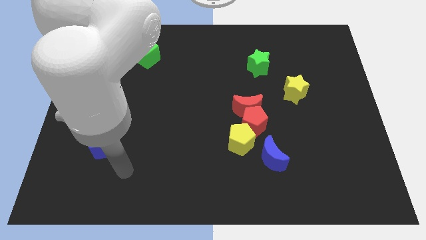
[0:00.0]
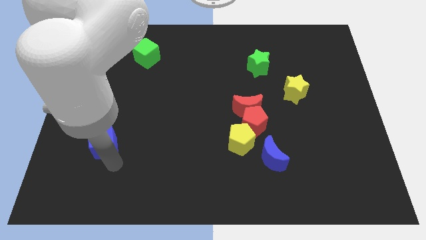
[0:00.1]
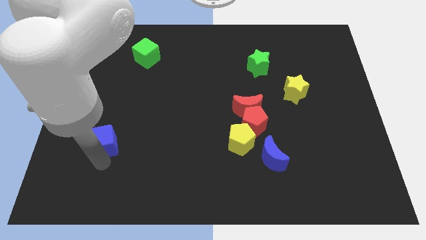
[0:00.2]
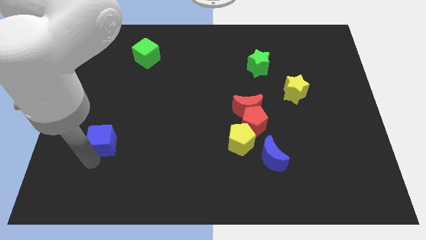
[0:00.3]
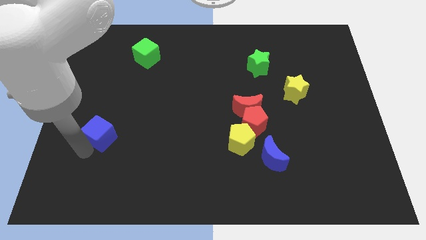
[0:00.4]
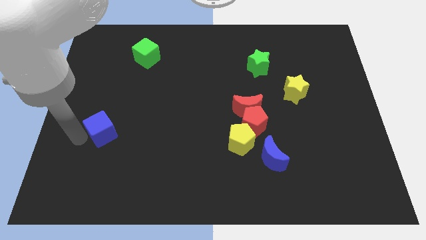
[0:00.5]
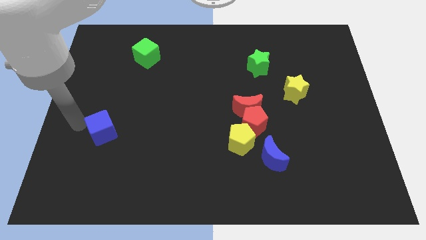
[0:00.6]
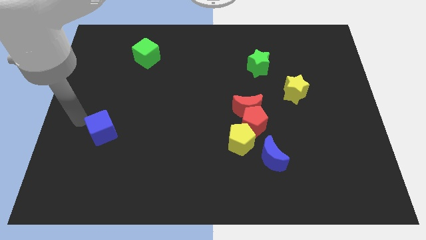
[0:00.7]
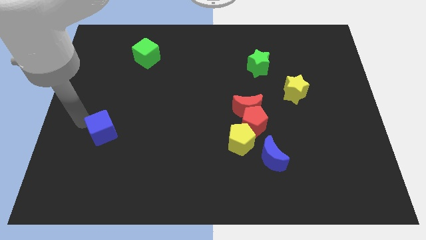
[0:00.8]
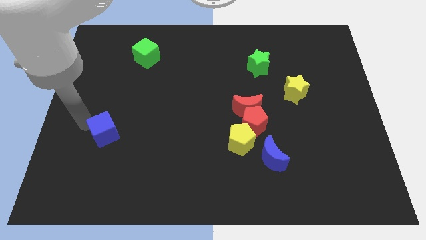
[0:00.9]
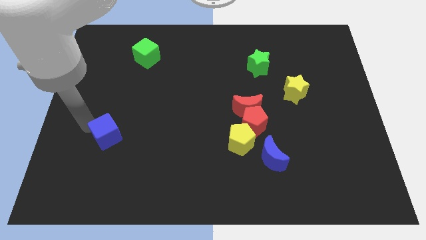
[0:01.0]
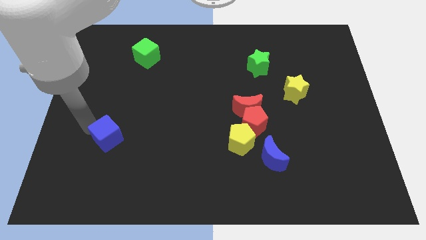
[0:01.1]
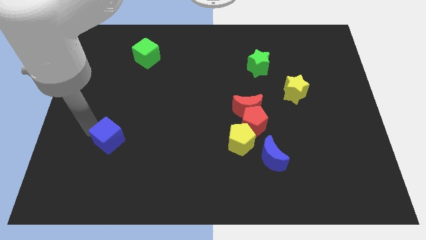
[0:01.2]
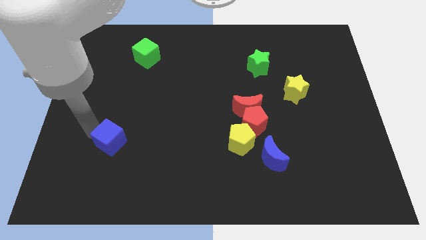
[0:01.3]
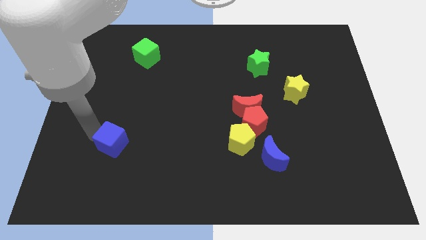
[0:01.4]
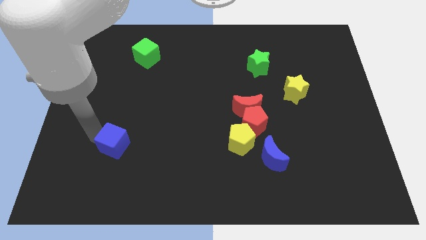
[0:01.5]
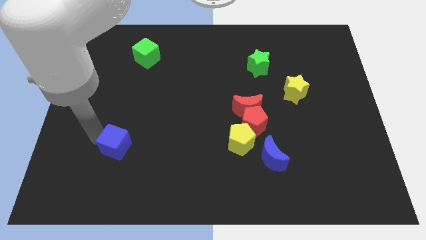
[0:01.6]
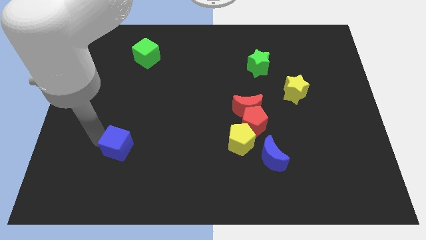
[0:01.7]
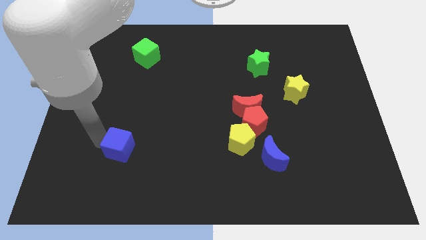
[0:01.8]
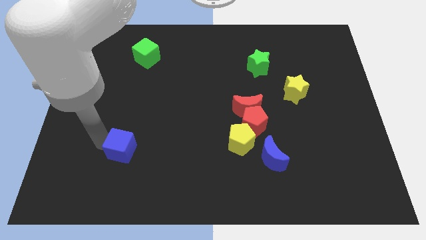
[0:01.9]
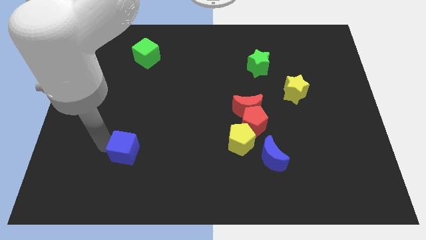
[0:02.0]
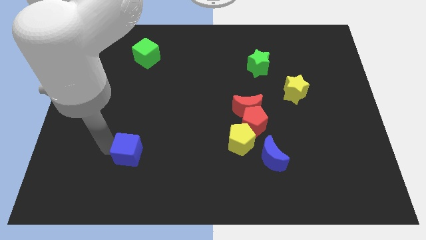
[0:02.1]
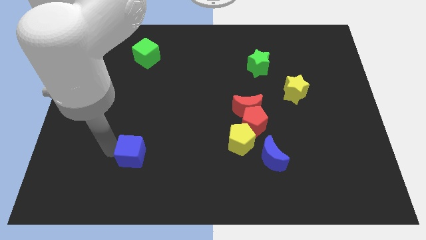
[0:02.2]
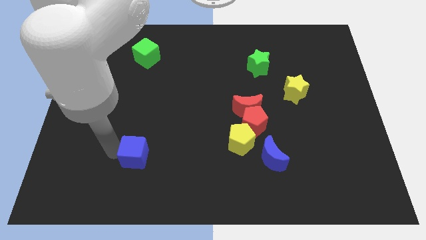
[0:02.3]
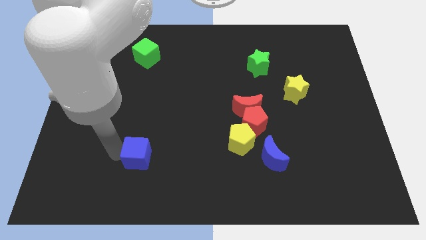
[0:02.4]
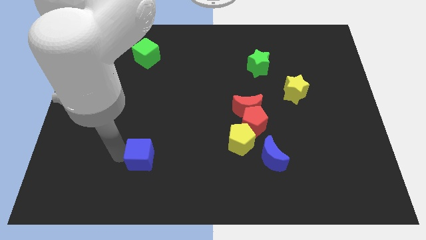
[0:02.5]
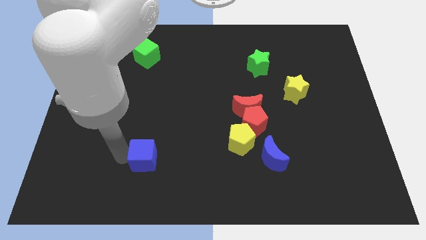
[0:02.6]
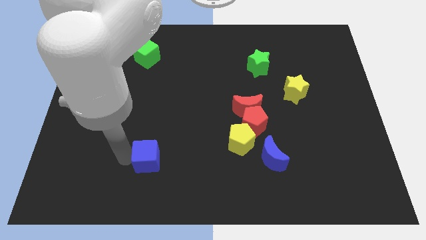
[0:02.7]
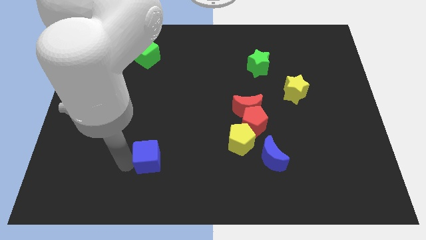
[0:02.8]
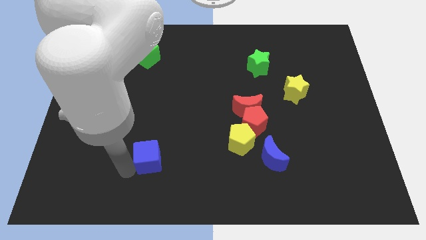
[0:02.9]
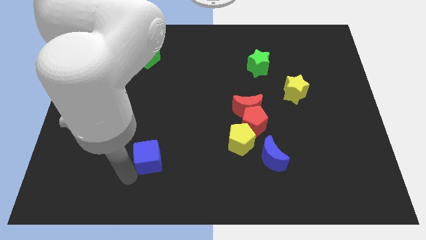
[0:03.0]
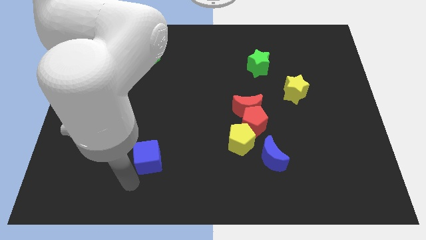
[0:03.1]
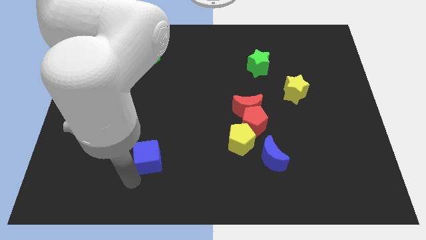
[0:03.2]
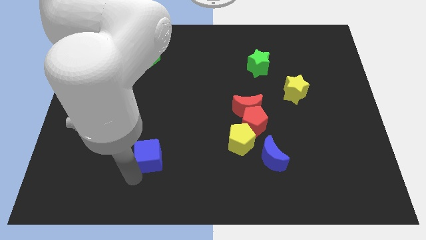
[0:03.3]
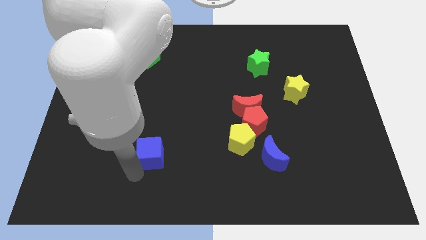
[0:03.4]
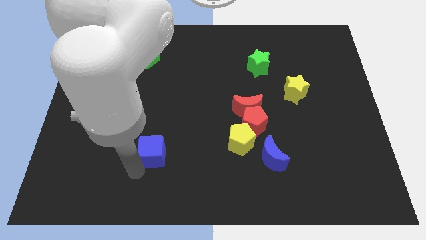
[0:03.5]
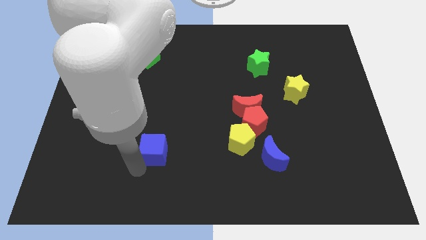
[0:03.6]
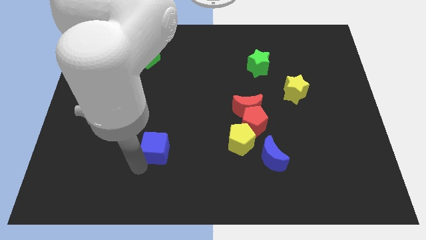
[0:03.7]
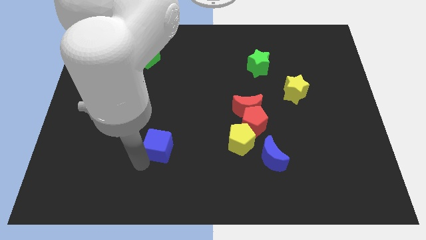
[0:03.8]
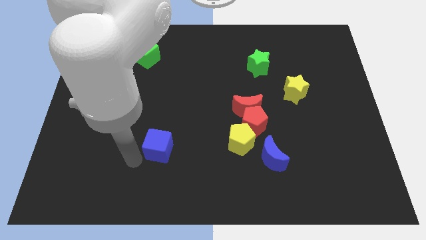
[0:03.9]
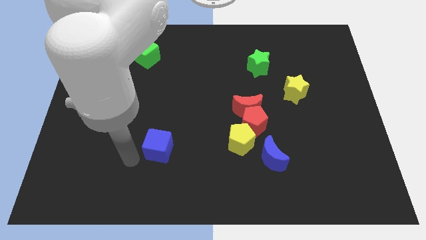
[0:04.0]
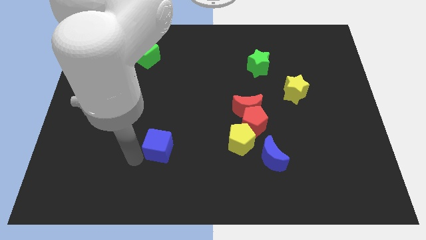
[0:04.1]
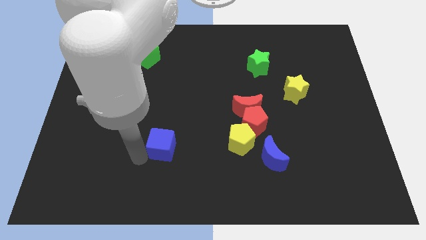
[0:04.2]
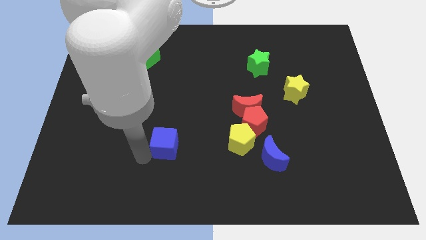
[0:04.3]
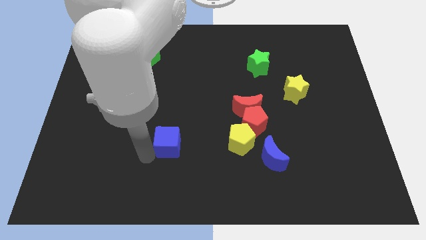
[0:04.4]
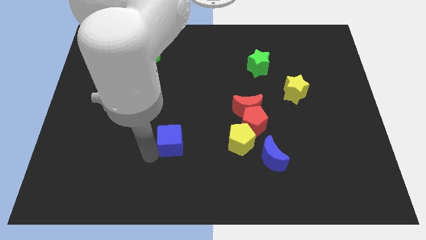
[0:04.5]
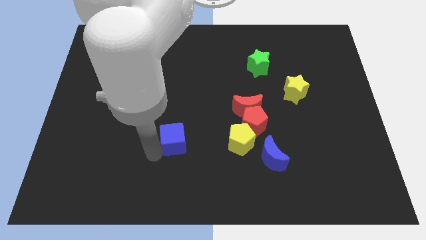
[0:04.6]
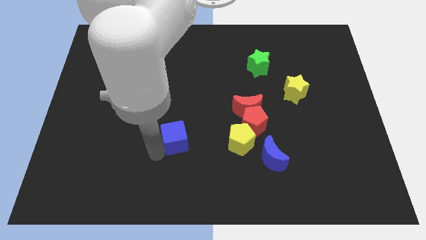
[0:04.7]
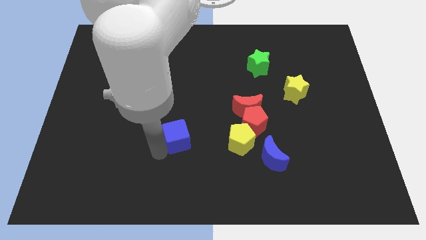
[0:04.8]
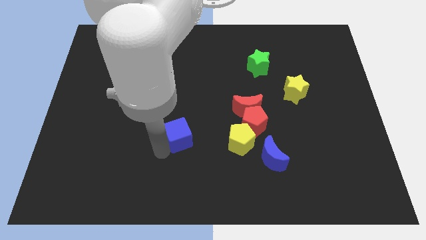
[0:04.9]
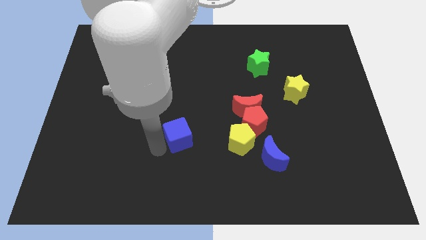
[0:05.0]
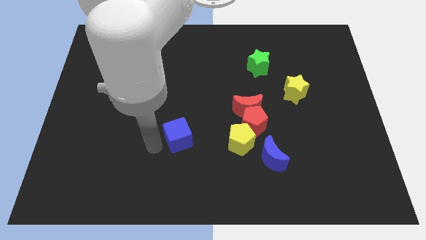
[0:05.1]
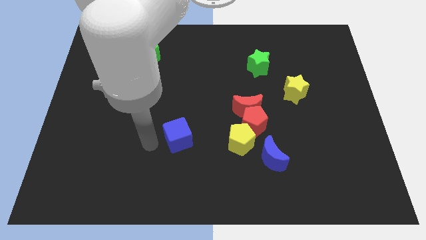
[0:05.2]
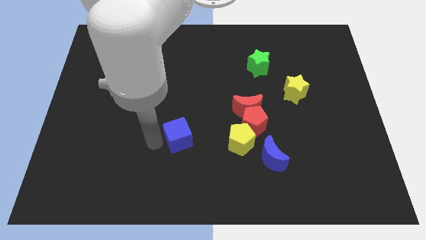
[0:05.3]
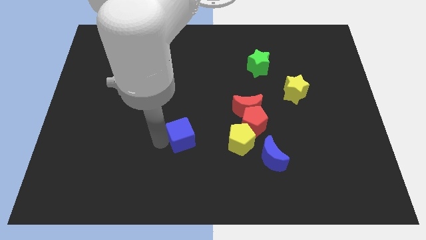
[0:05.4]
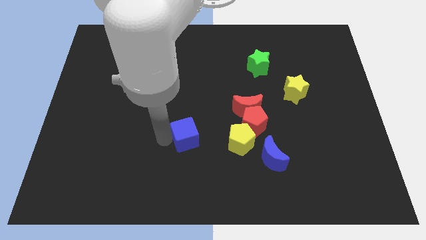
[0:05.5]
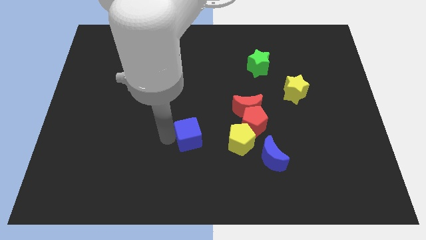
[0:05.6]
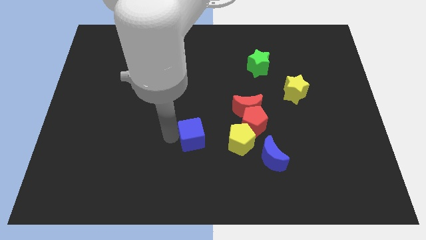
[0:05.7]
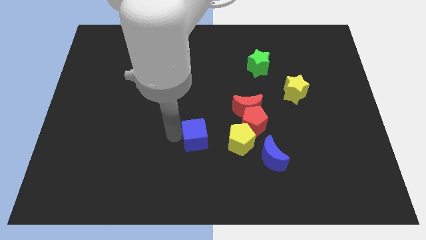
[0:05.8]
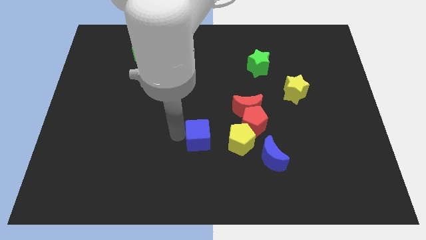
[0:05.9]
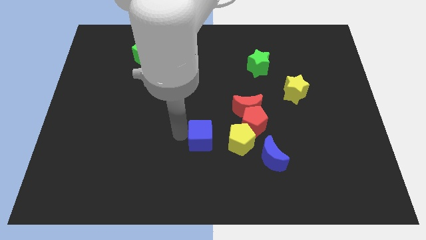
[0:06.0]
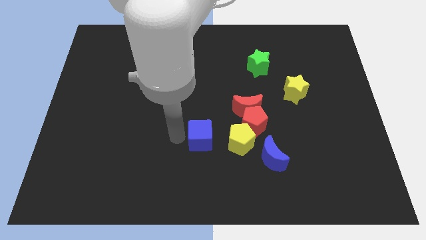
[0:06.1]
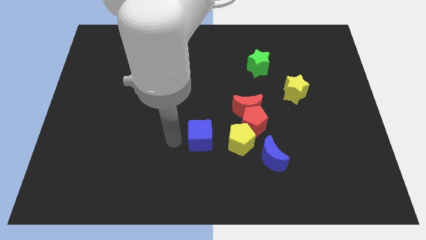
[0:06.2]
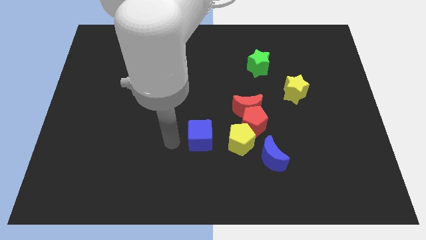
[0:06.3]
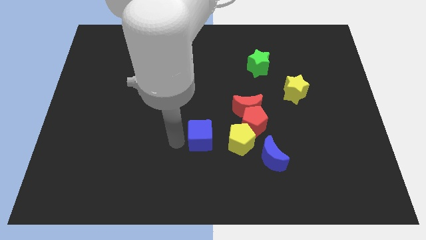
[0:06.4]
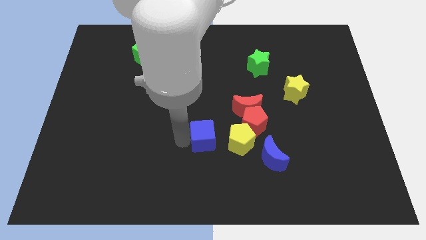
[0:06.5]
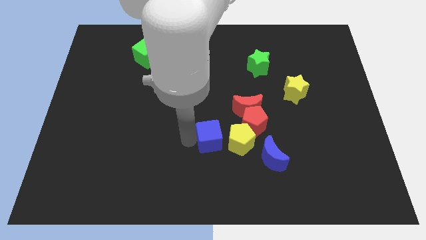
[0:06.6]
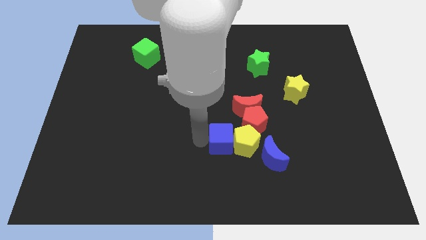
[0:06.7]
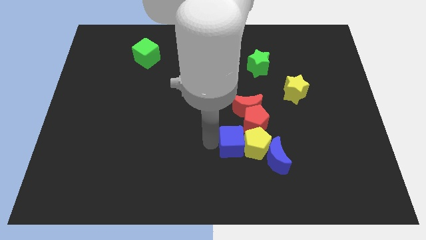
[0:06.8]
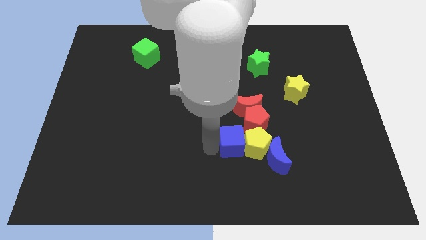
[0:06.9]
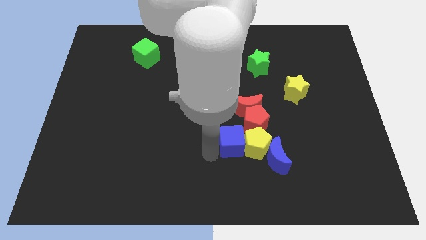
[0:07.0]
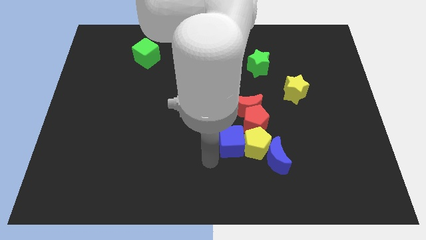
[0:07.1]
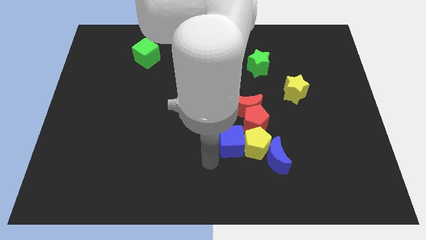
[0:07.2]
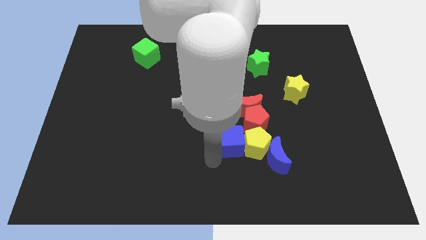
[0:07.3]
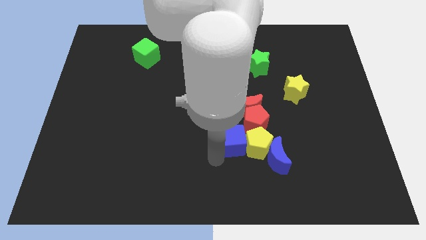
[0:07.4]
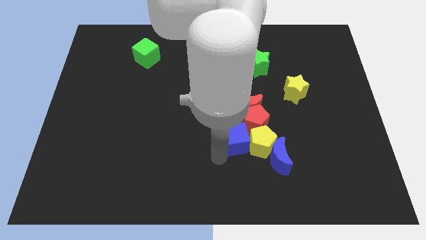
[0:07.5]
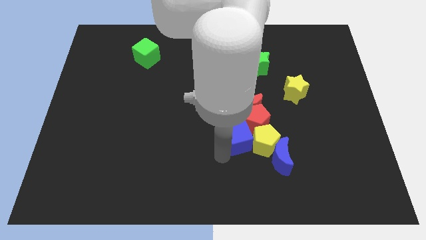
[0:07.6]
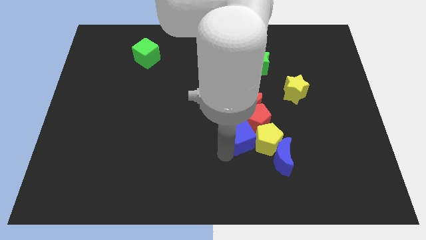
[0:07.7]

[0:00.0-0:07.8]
slide the blue cube to the red pentagon

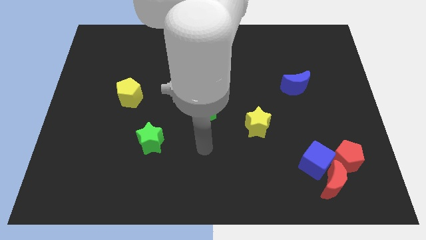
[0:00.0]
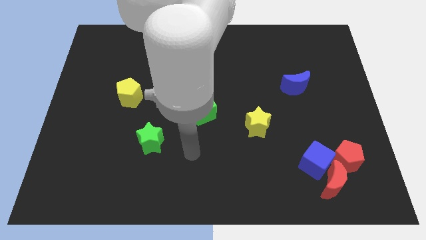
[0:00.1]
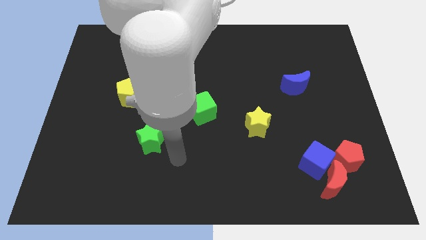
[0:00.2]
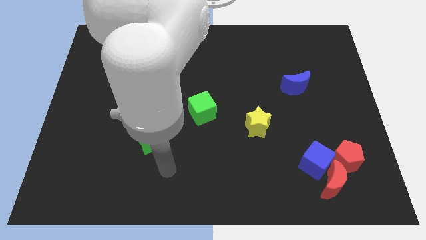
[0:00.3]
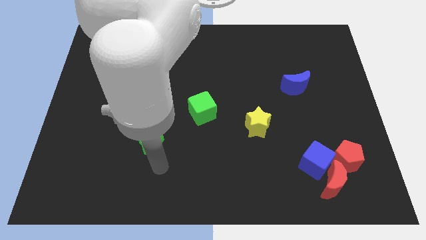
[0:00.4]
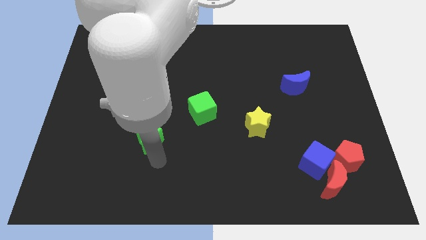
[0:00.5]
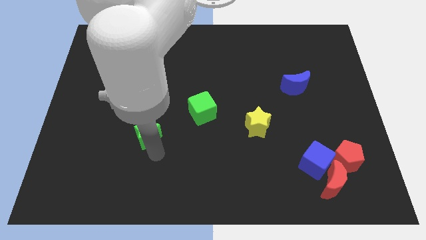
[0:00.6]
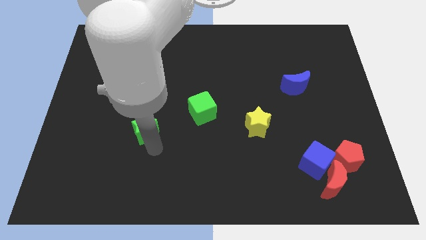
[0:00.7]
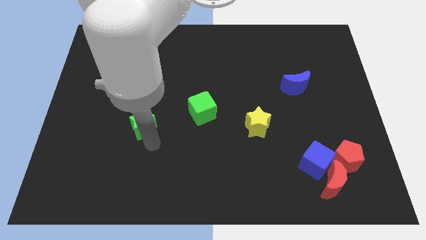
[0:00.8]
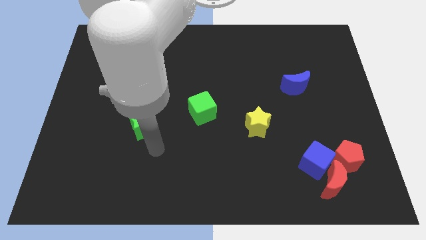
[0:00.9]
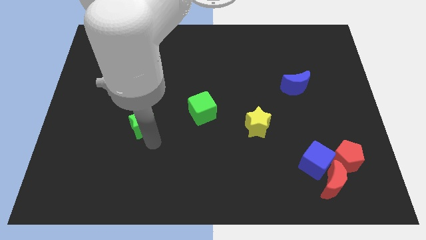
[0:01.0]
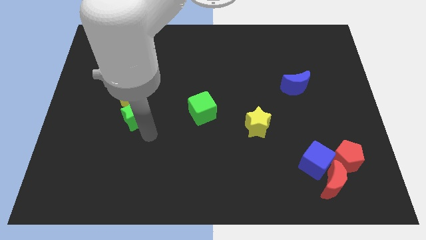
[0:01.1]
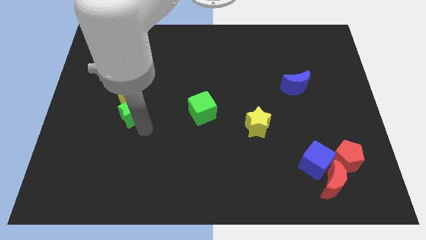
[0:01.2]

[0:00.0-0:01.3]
push the green star to the yellow pentagon
